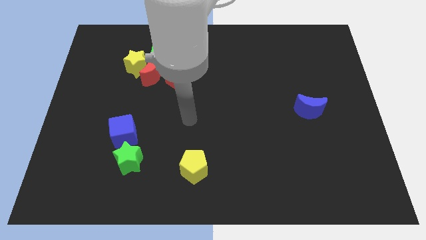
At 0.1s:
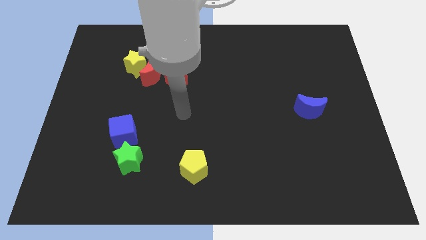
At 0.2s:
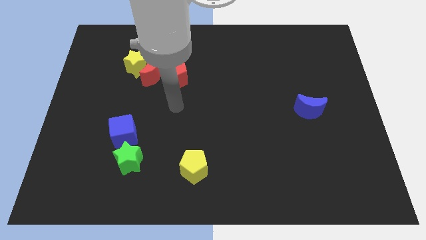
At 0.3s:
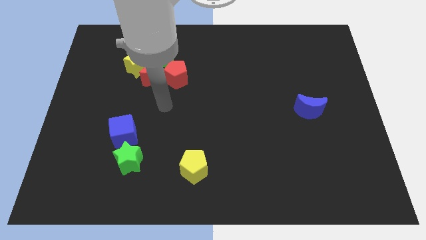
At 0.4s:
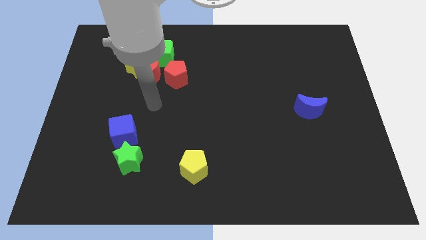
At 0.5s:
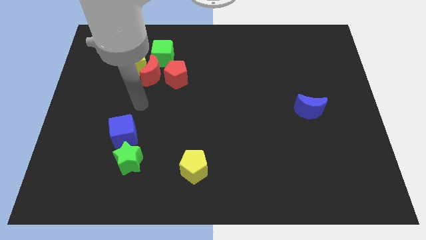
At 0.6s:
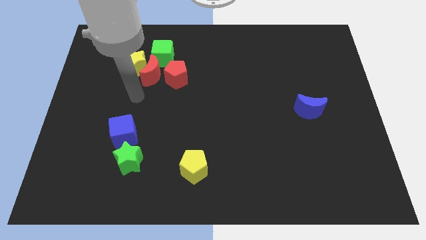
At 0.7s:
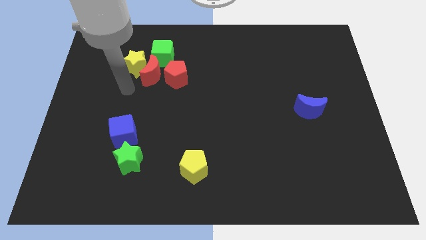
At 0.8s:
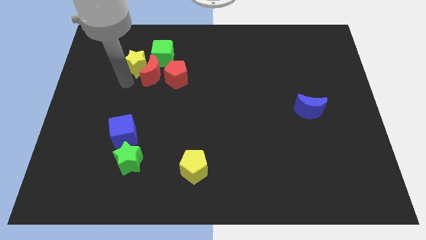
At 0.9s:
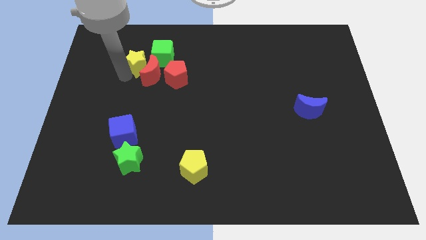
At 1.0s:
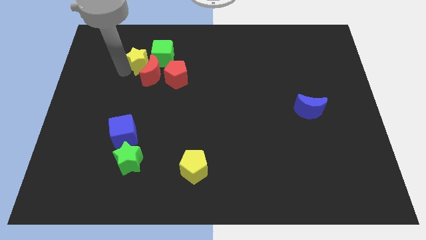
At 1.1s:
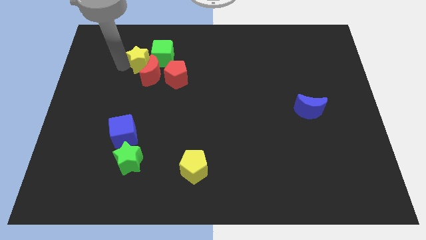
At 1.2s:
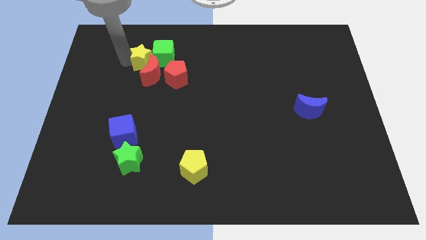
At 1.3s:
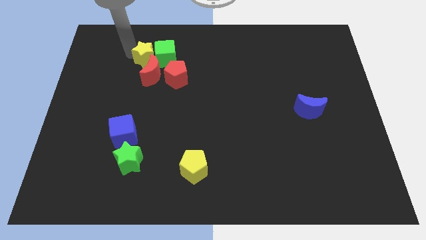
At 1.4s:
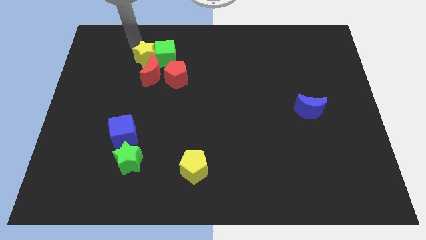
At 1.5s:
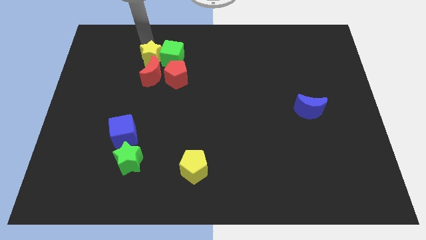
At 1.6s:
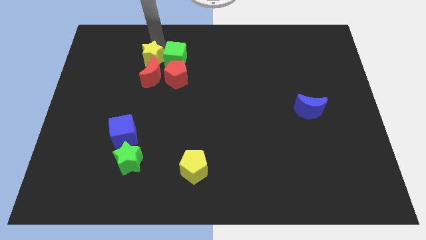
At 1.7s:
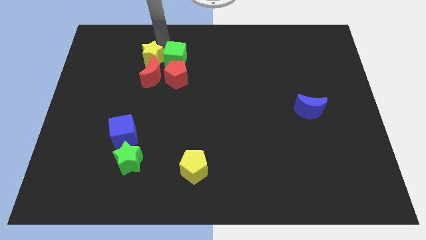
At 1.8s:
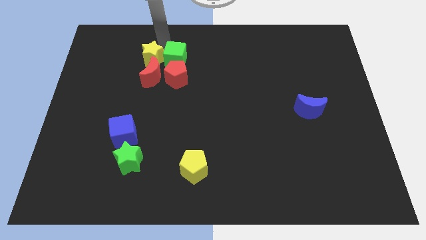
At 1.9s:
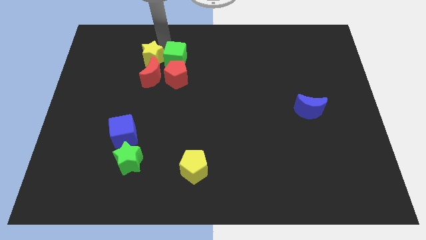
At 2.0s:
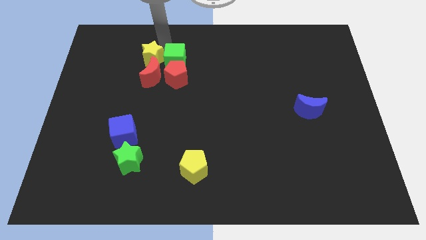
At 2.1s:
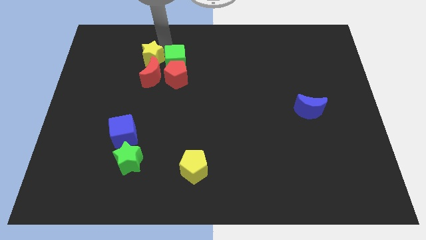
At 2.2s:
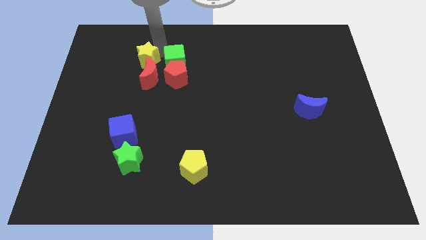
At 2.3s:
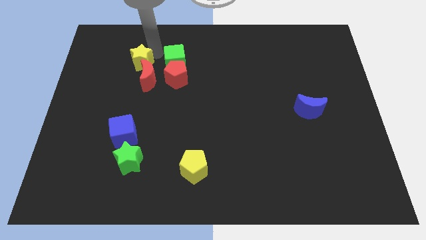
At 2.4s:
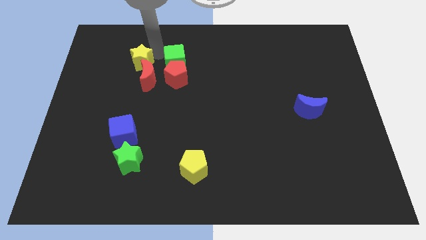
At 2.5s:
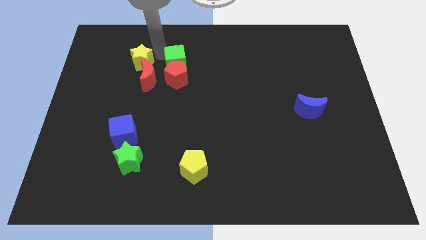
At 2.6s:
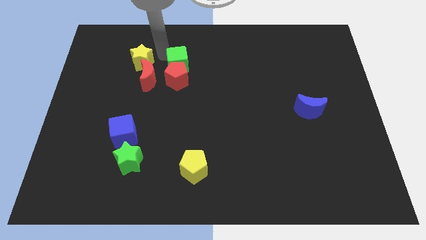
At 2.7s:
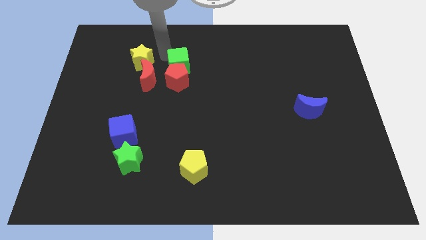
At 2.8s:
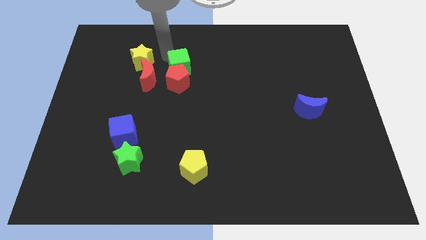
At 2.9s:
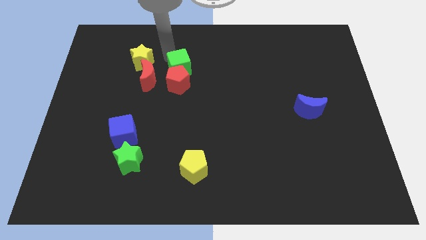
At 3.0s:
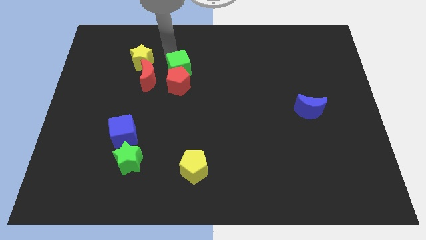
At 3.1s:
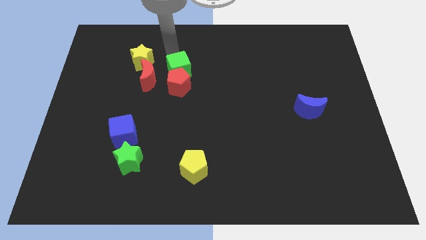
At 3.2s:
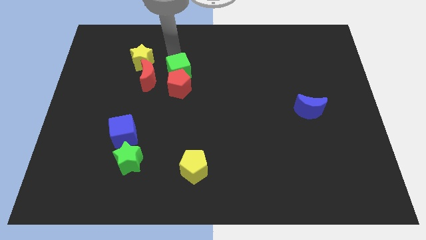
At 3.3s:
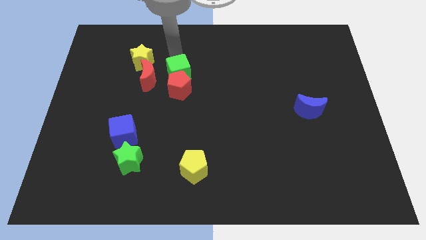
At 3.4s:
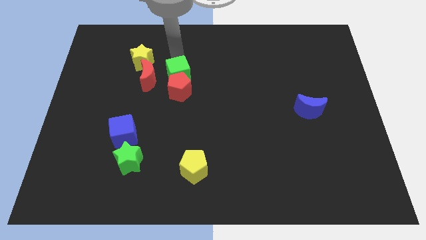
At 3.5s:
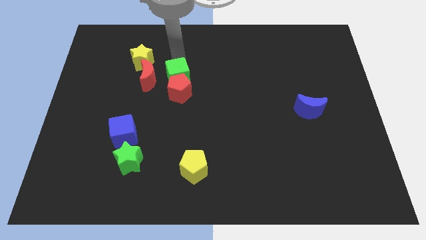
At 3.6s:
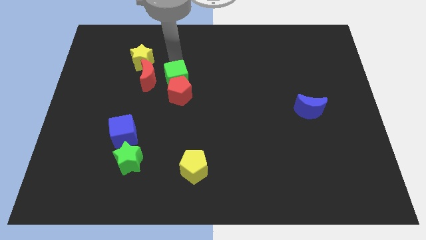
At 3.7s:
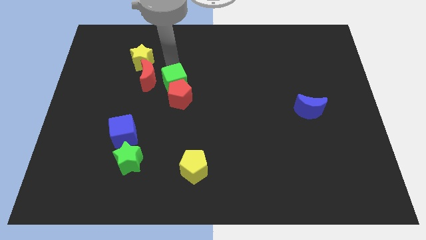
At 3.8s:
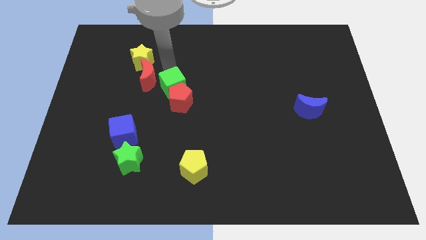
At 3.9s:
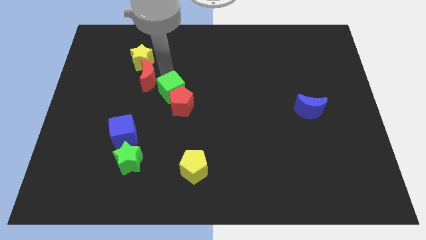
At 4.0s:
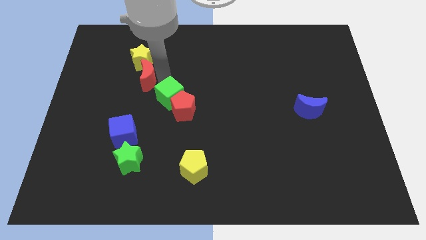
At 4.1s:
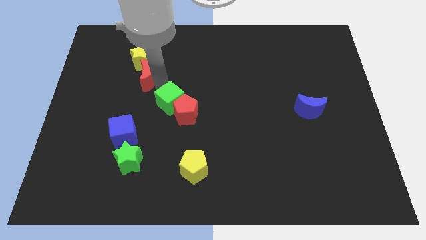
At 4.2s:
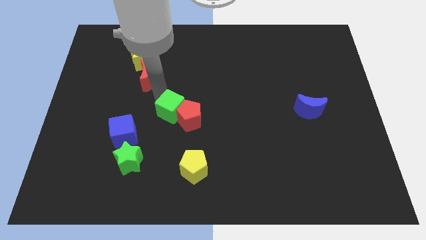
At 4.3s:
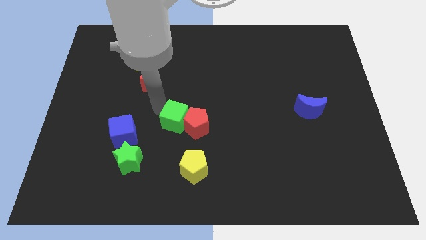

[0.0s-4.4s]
move the green cube down

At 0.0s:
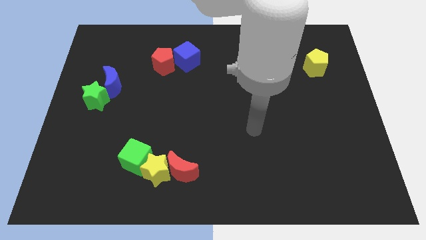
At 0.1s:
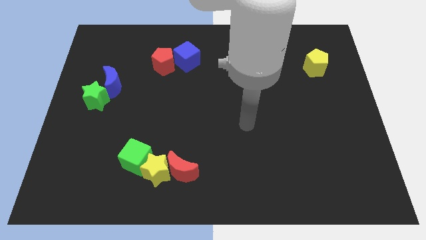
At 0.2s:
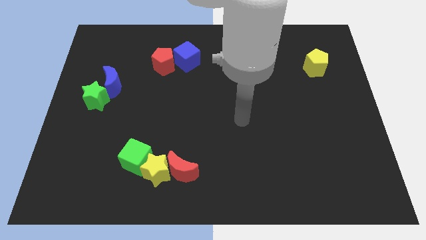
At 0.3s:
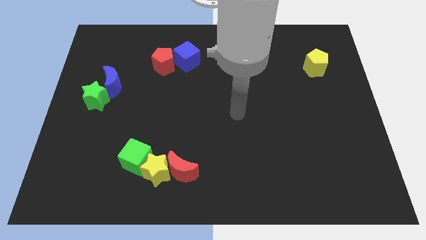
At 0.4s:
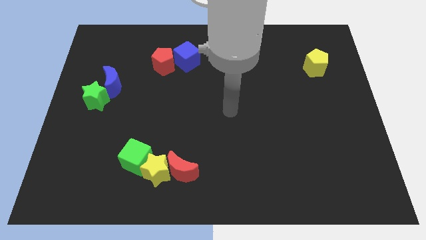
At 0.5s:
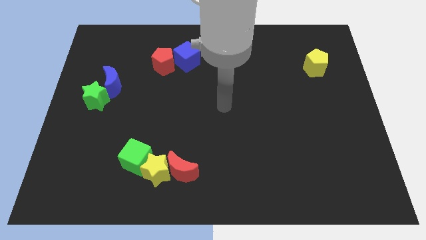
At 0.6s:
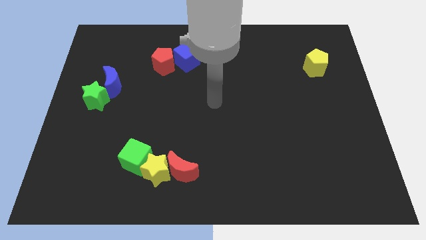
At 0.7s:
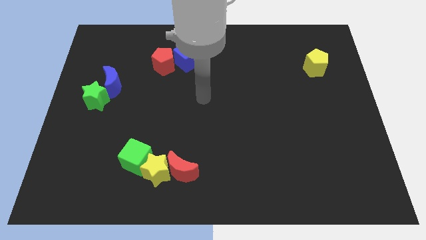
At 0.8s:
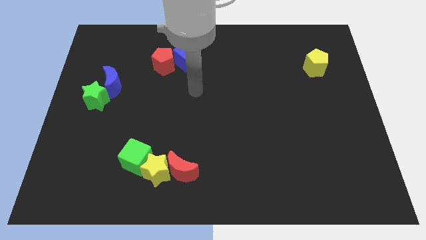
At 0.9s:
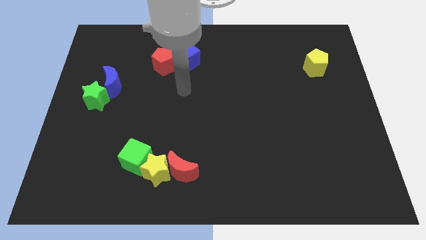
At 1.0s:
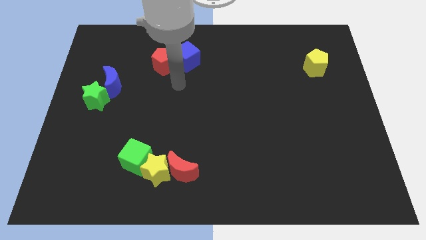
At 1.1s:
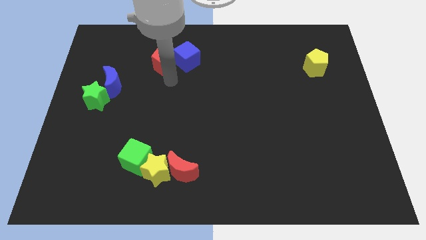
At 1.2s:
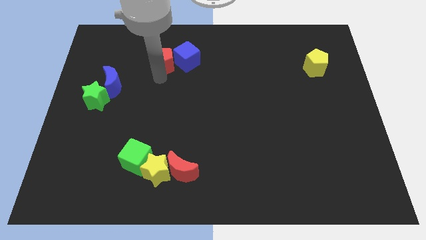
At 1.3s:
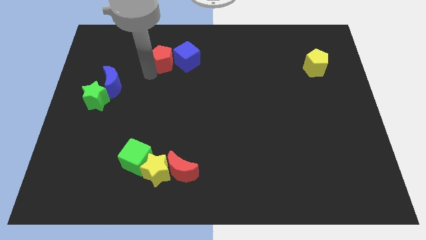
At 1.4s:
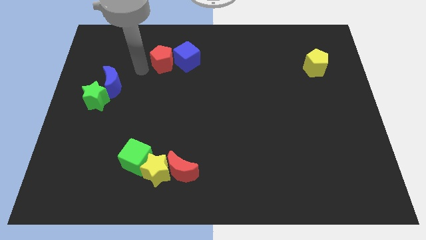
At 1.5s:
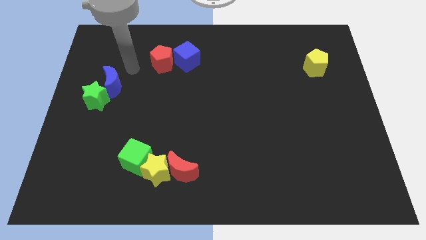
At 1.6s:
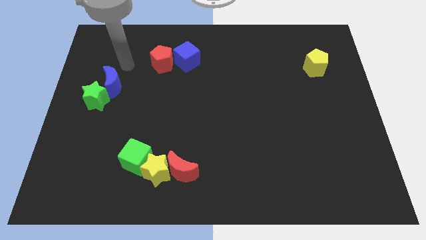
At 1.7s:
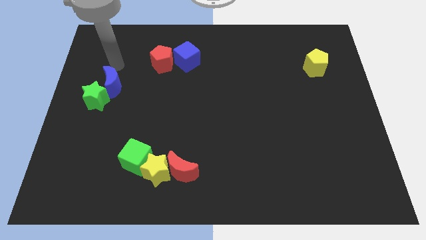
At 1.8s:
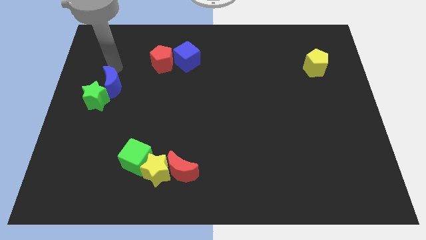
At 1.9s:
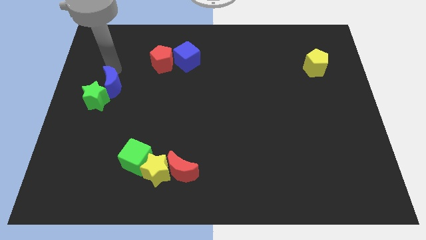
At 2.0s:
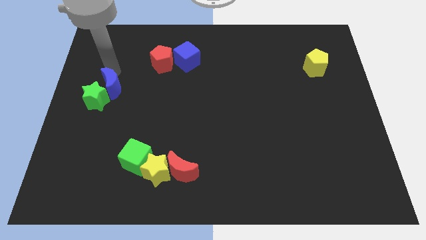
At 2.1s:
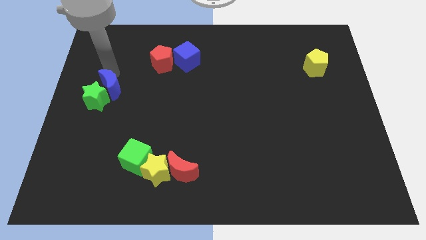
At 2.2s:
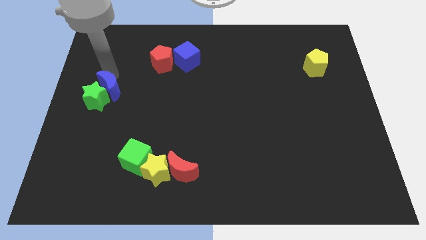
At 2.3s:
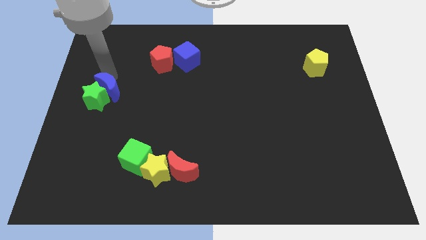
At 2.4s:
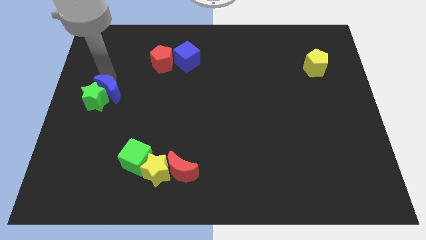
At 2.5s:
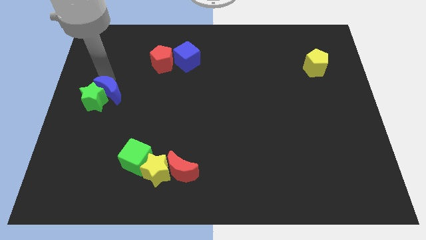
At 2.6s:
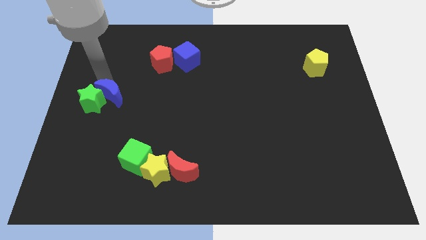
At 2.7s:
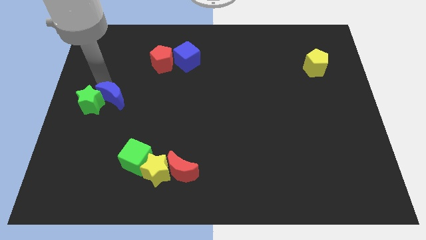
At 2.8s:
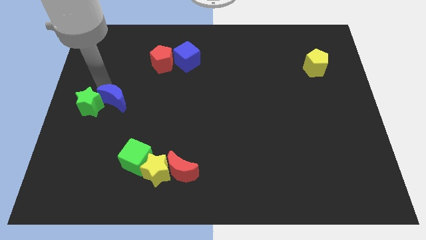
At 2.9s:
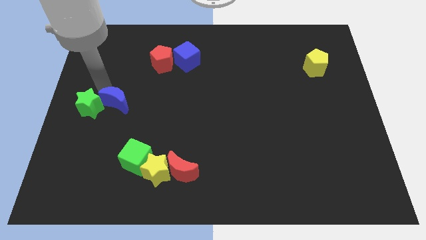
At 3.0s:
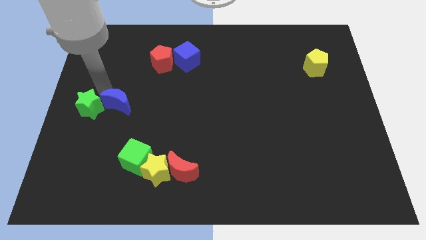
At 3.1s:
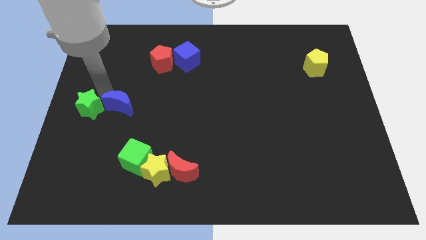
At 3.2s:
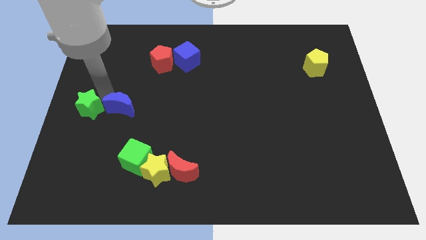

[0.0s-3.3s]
slide the blue moon down a little

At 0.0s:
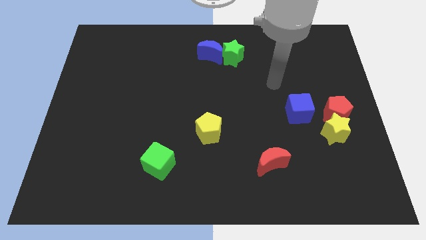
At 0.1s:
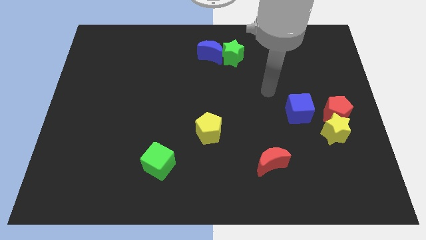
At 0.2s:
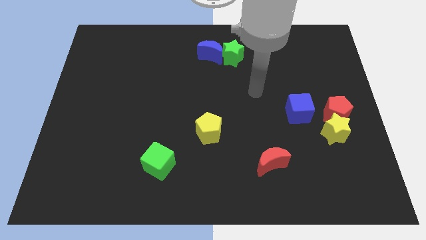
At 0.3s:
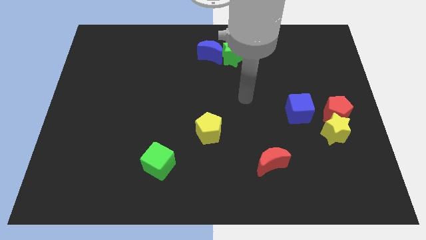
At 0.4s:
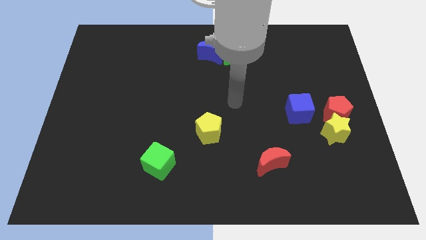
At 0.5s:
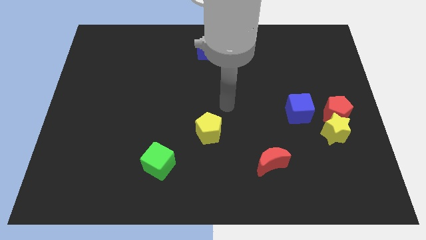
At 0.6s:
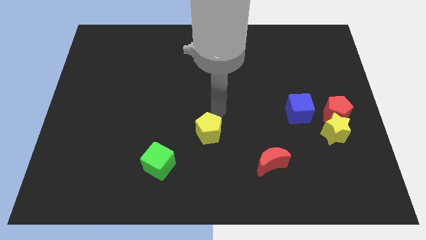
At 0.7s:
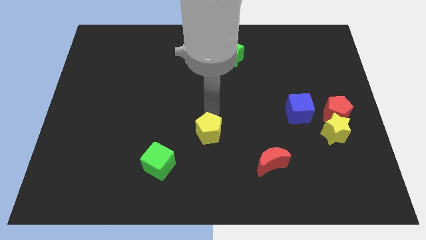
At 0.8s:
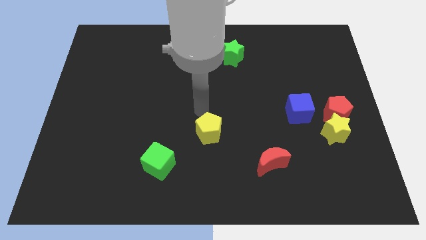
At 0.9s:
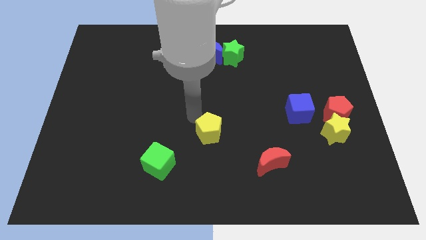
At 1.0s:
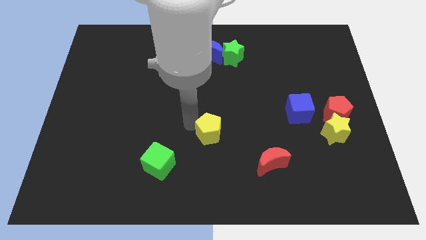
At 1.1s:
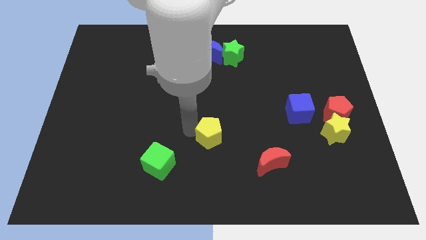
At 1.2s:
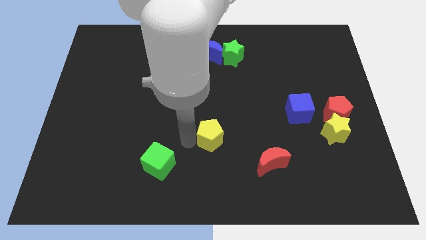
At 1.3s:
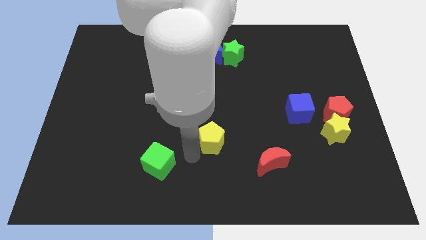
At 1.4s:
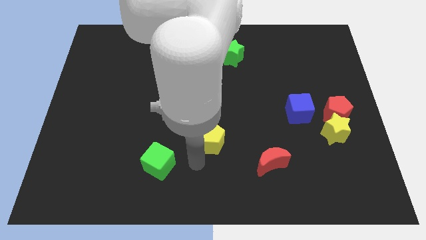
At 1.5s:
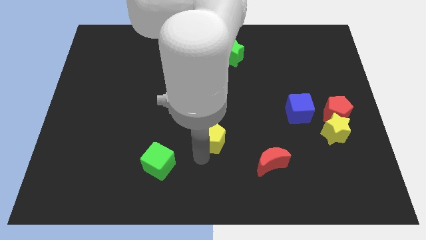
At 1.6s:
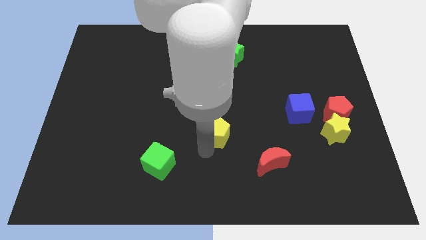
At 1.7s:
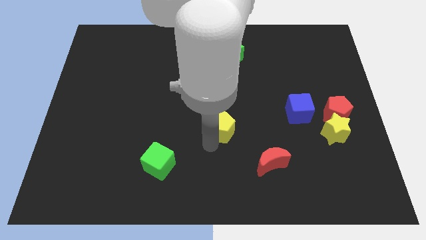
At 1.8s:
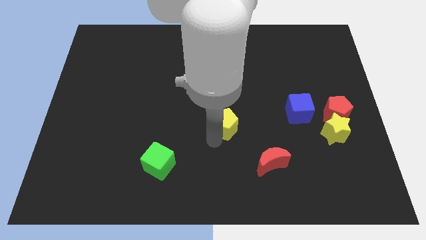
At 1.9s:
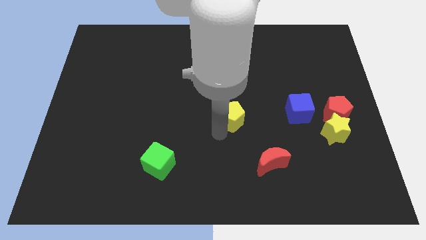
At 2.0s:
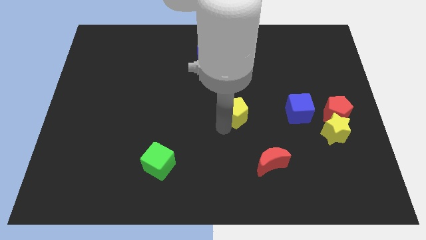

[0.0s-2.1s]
move the yellow pentagon a little up and then to the right
